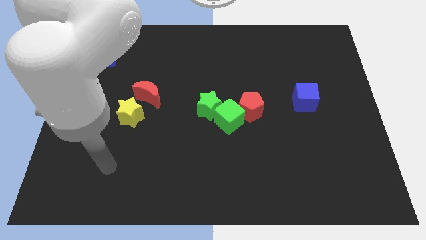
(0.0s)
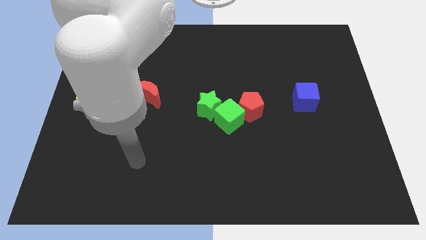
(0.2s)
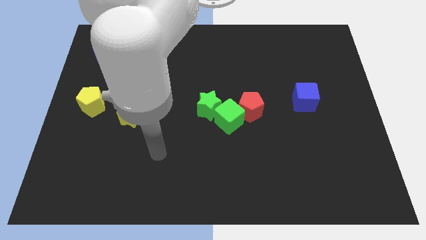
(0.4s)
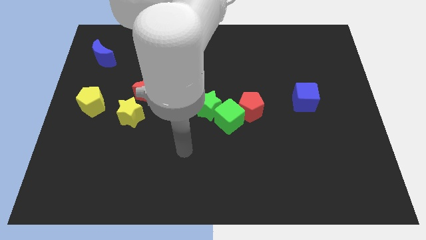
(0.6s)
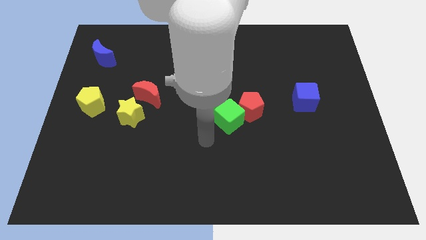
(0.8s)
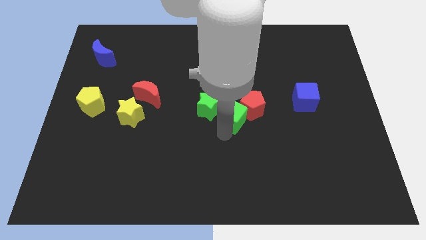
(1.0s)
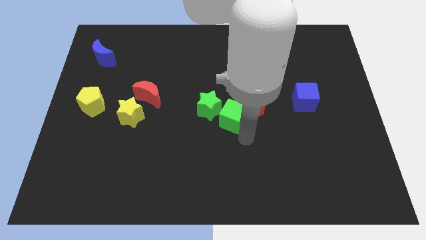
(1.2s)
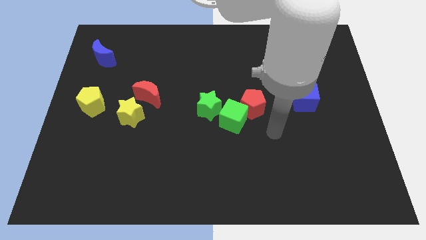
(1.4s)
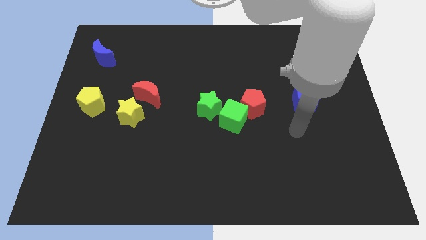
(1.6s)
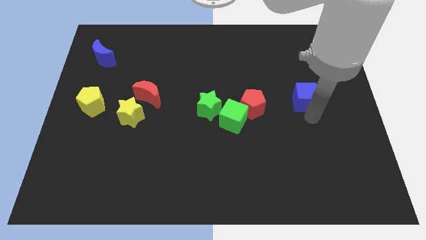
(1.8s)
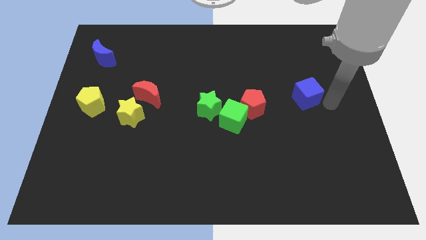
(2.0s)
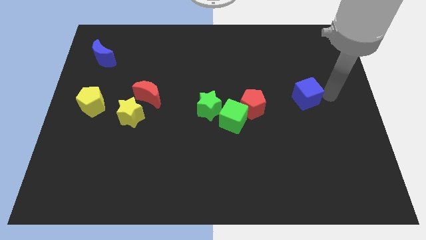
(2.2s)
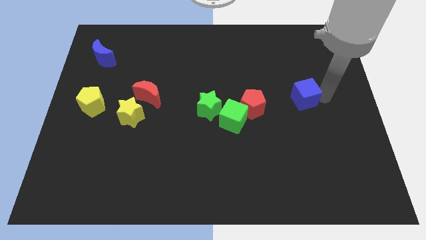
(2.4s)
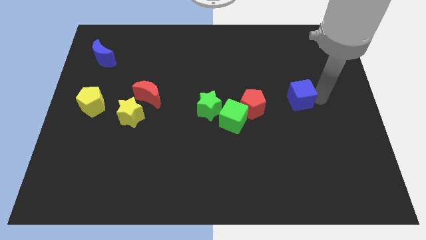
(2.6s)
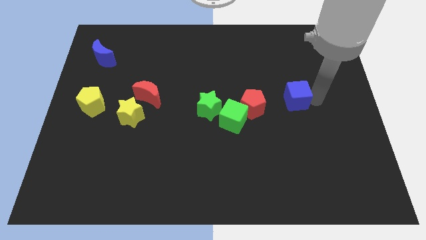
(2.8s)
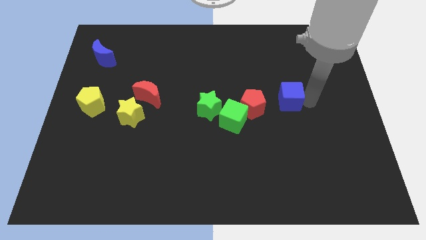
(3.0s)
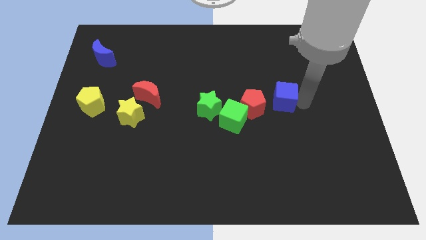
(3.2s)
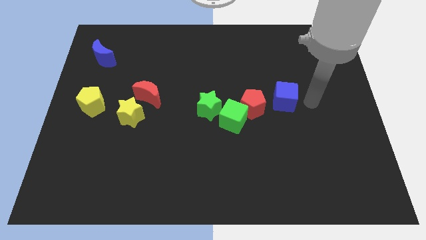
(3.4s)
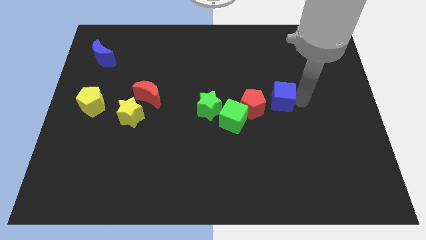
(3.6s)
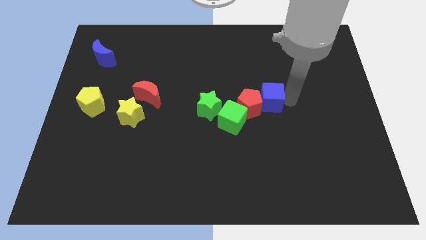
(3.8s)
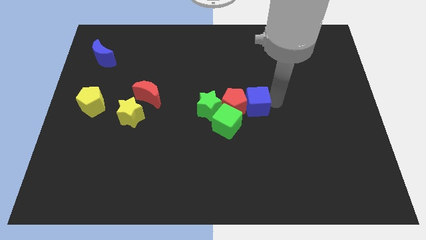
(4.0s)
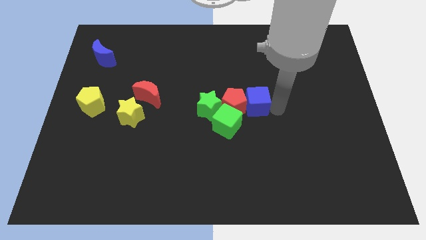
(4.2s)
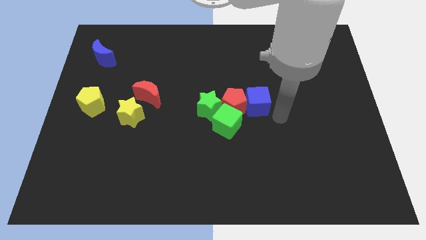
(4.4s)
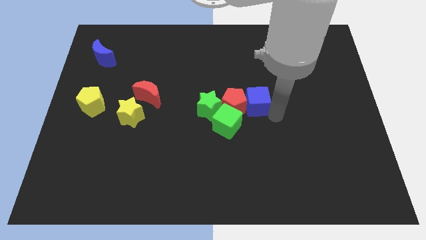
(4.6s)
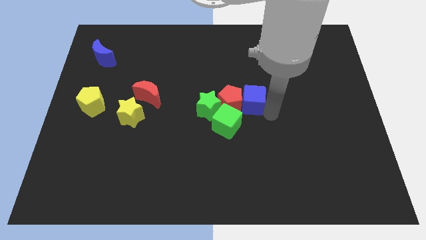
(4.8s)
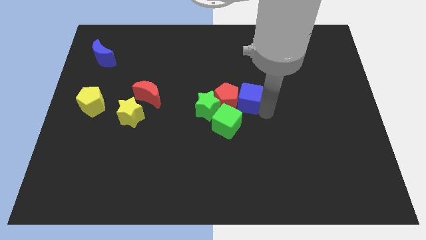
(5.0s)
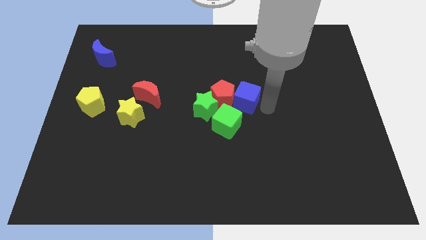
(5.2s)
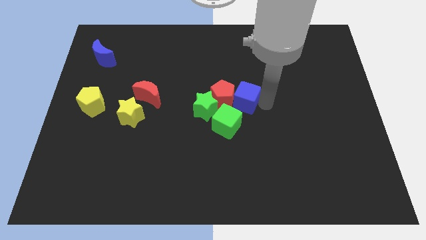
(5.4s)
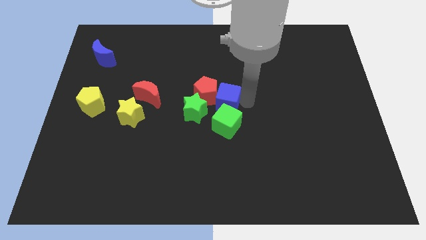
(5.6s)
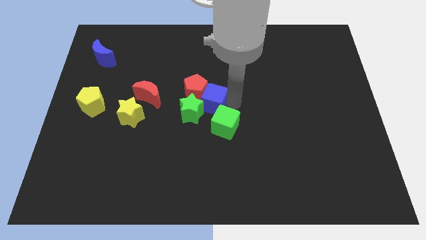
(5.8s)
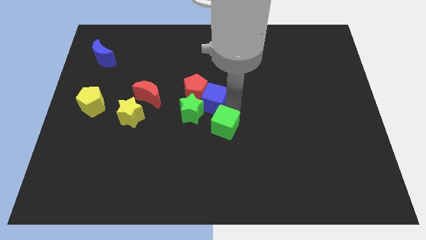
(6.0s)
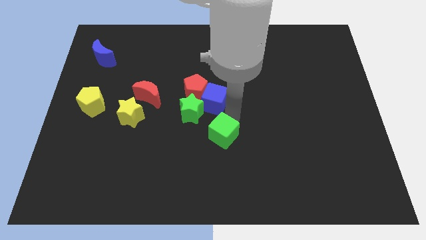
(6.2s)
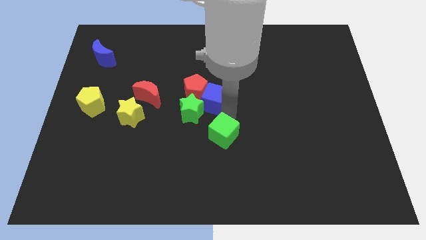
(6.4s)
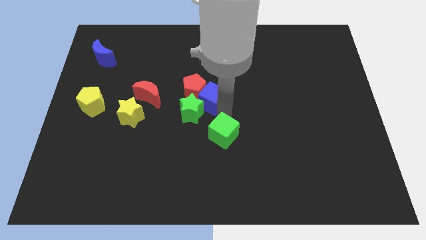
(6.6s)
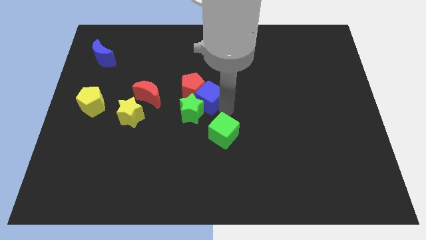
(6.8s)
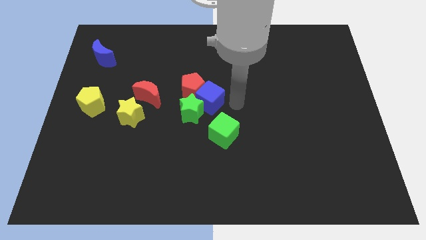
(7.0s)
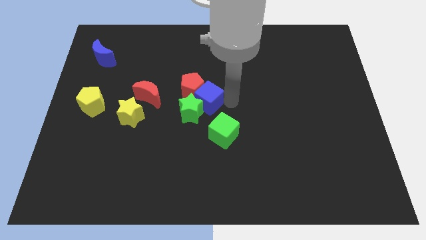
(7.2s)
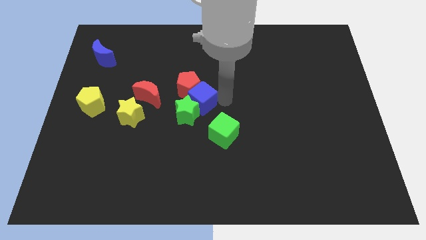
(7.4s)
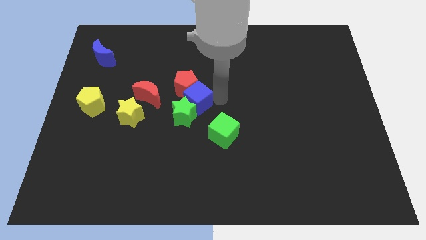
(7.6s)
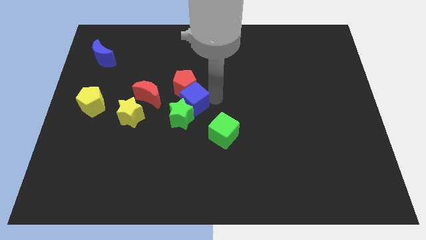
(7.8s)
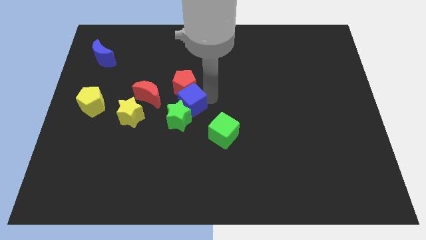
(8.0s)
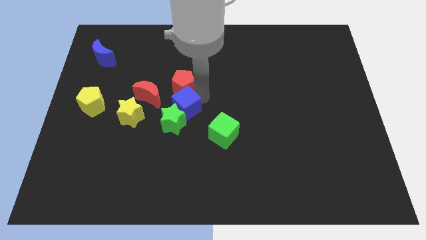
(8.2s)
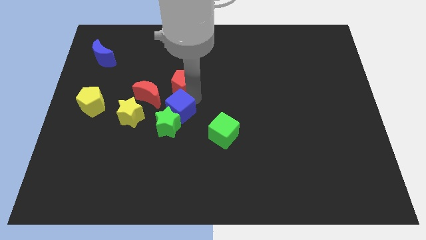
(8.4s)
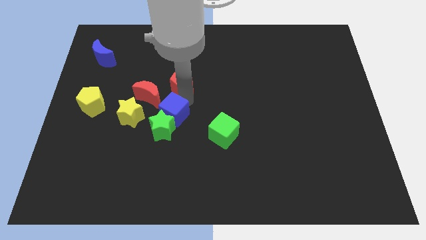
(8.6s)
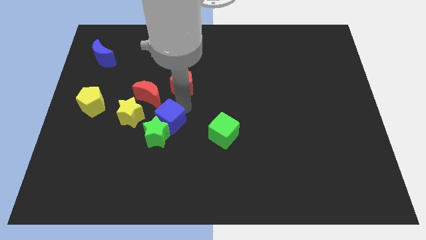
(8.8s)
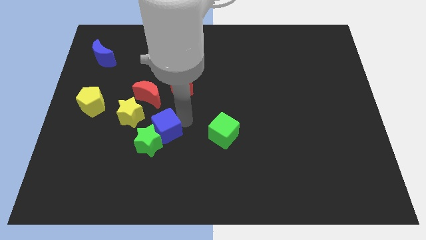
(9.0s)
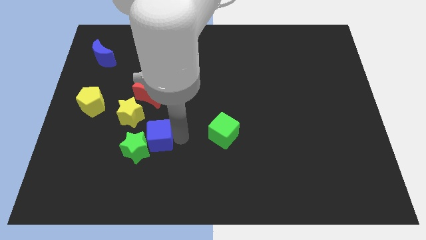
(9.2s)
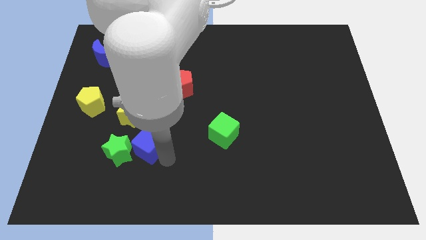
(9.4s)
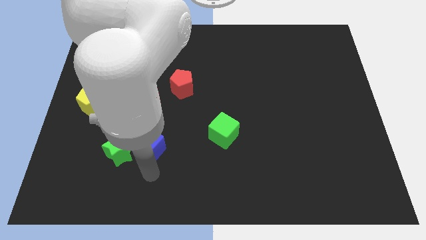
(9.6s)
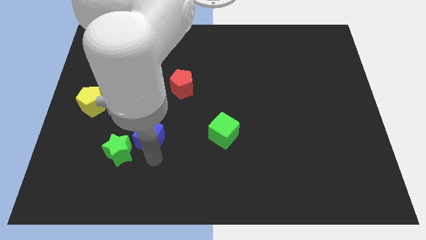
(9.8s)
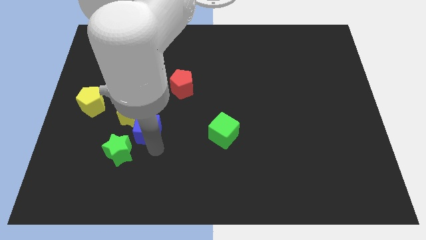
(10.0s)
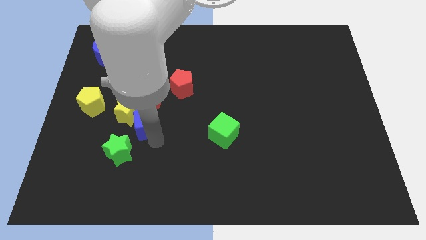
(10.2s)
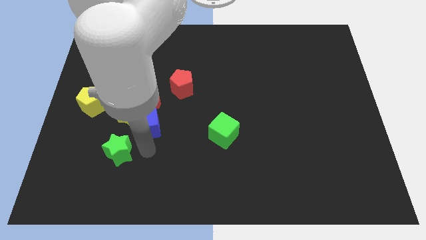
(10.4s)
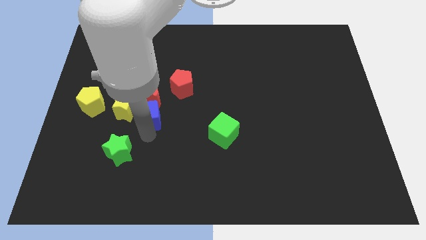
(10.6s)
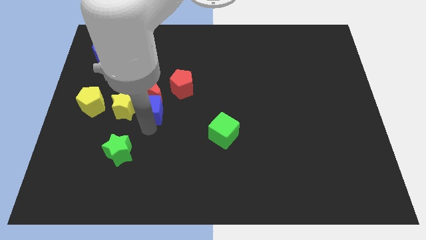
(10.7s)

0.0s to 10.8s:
push the blue cube close to the red moon

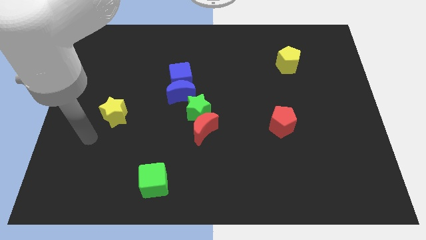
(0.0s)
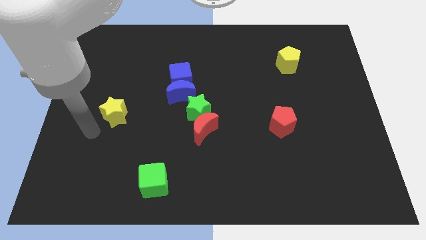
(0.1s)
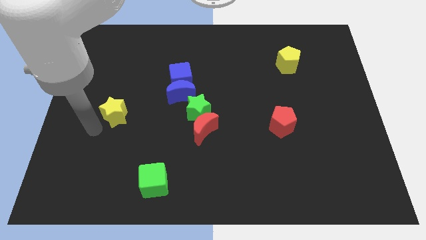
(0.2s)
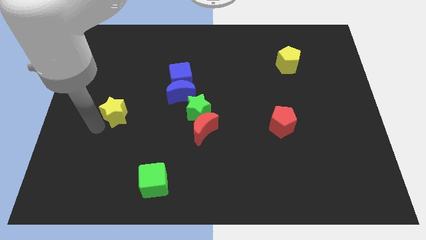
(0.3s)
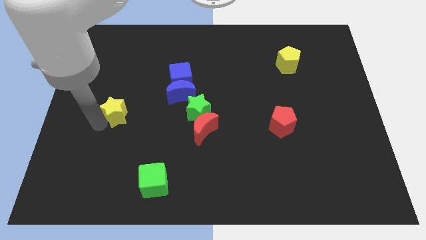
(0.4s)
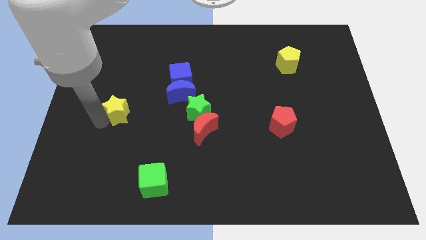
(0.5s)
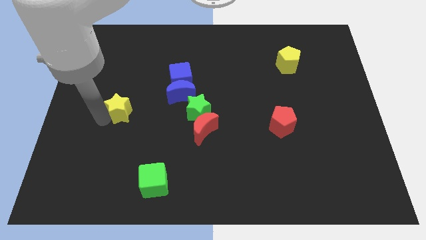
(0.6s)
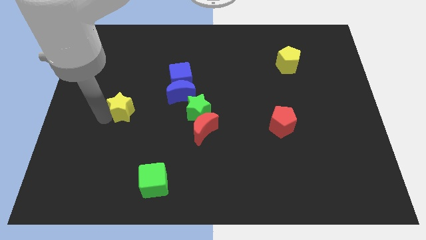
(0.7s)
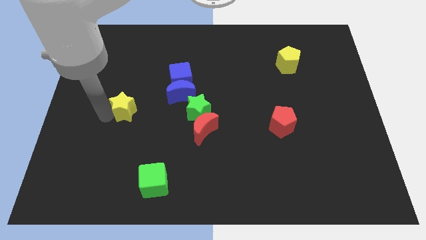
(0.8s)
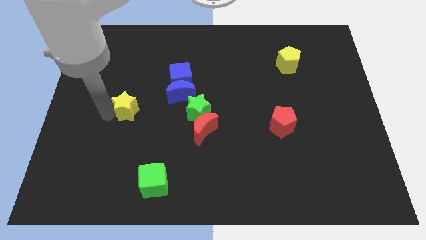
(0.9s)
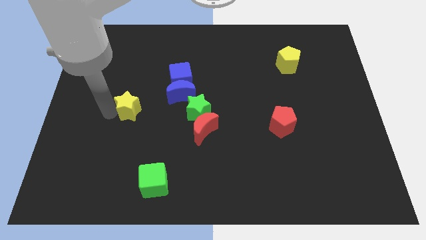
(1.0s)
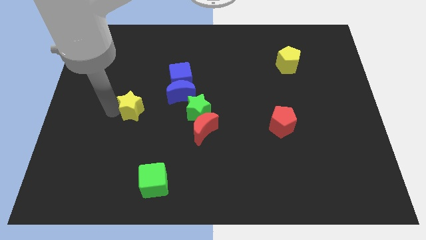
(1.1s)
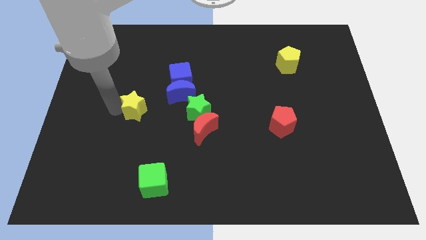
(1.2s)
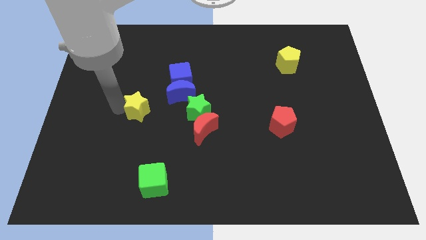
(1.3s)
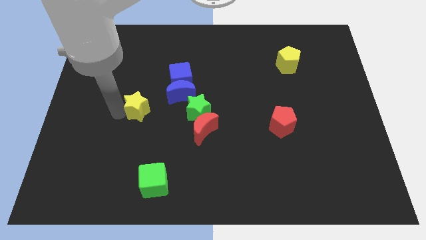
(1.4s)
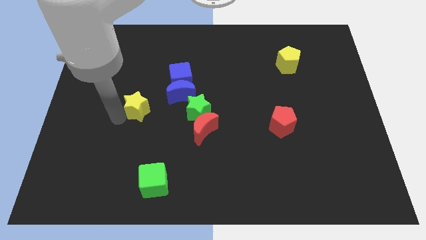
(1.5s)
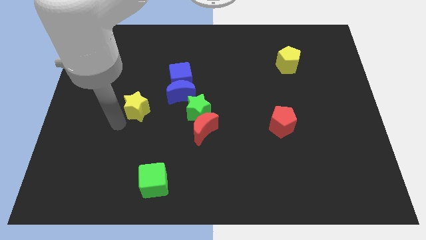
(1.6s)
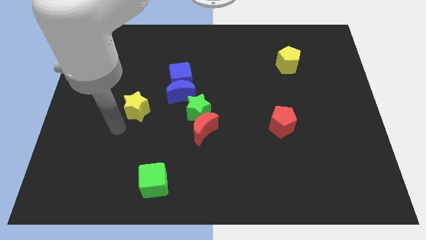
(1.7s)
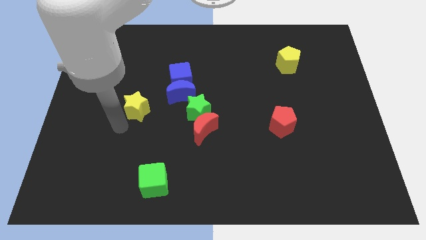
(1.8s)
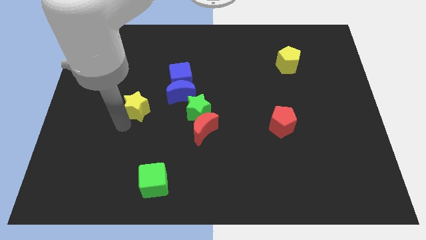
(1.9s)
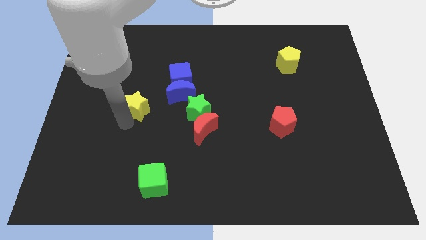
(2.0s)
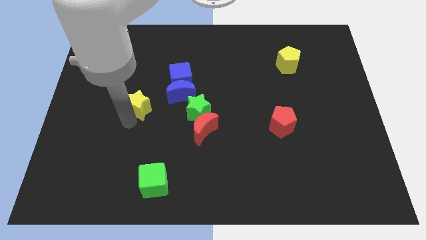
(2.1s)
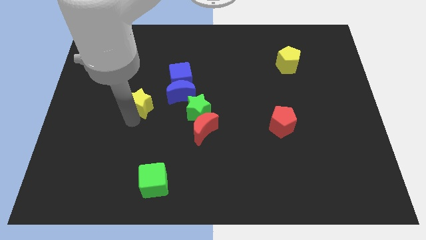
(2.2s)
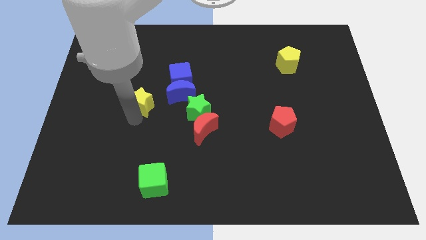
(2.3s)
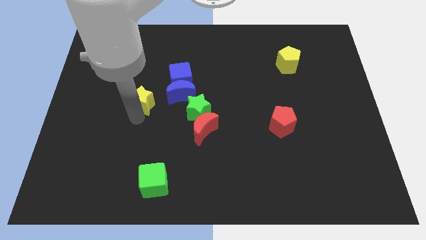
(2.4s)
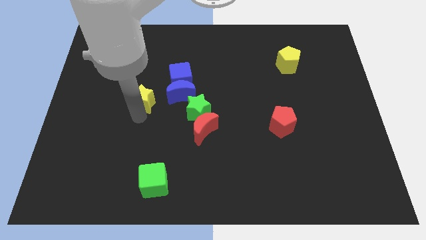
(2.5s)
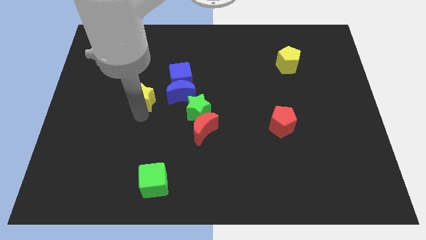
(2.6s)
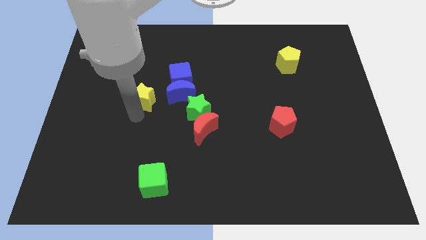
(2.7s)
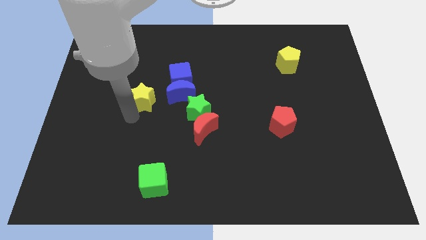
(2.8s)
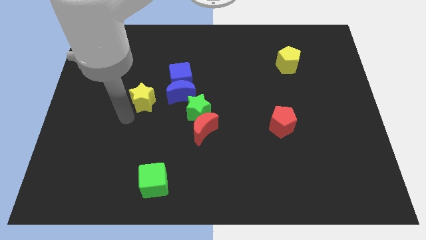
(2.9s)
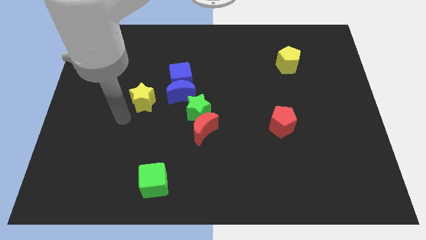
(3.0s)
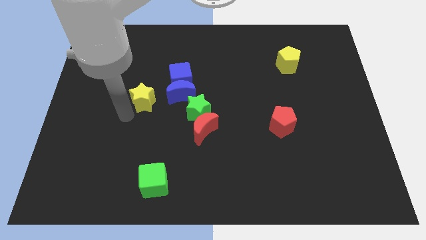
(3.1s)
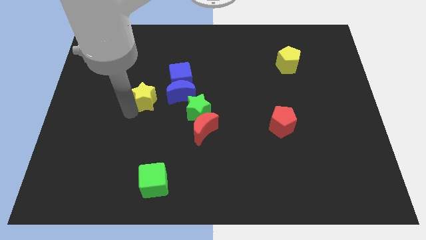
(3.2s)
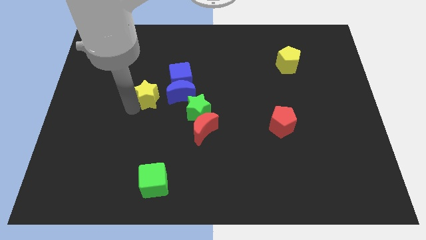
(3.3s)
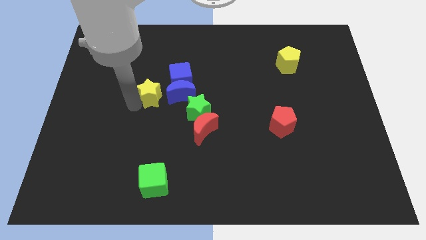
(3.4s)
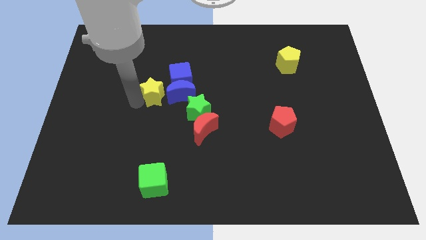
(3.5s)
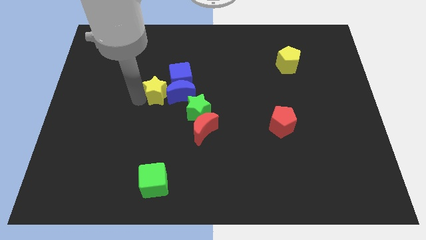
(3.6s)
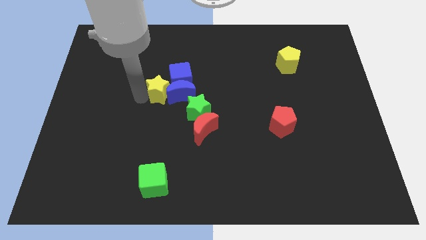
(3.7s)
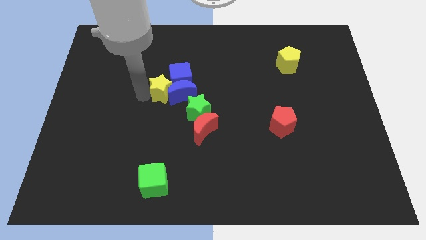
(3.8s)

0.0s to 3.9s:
put the yellow star next to the blue cube
